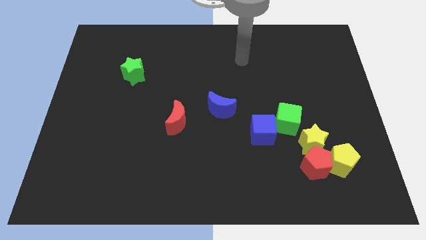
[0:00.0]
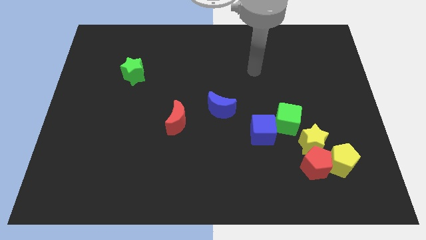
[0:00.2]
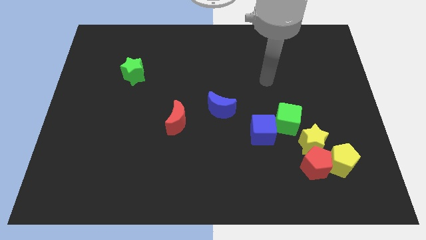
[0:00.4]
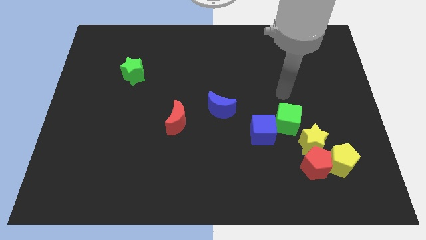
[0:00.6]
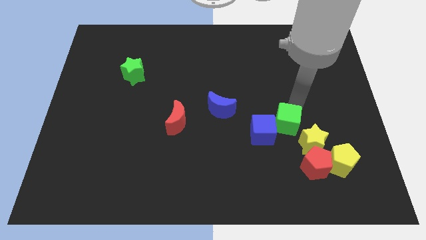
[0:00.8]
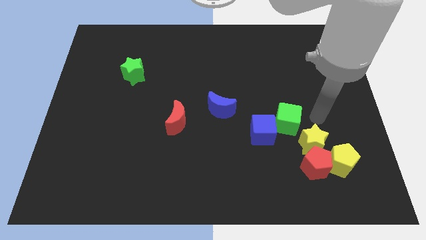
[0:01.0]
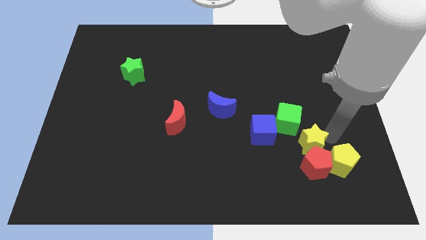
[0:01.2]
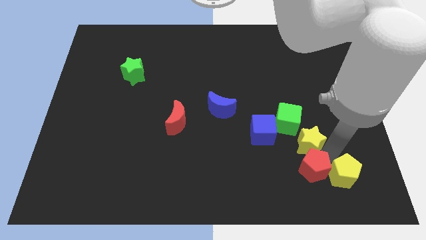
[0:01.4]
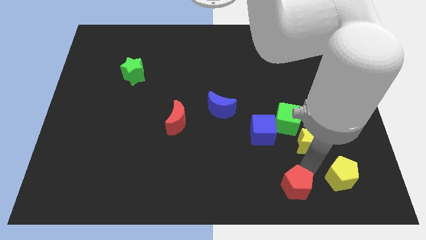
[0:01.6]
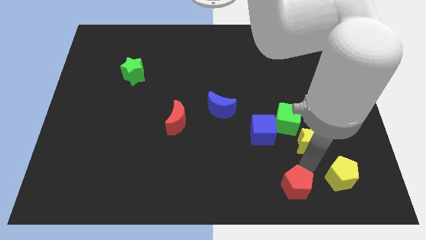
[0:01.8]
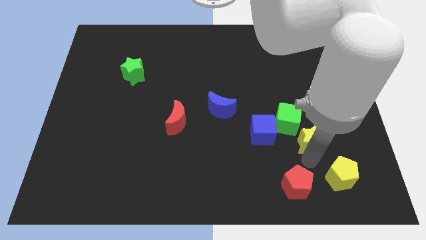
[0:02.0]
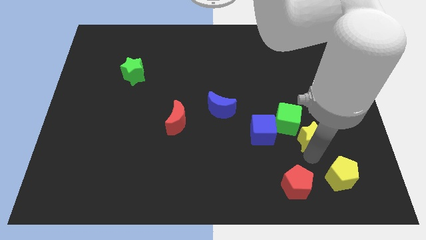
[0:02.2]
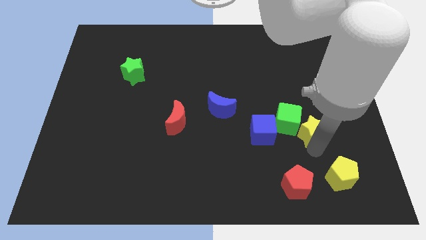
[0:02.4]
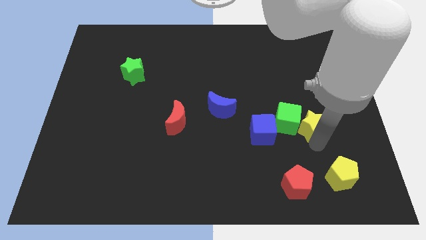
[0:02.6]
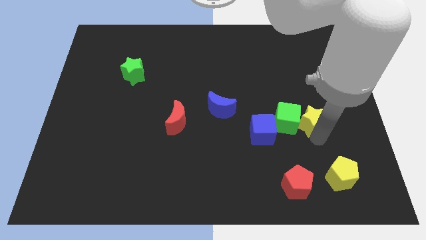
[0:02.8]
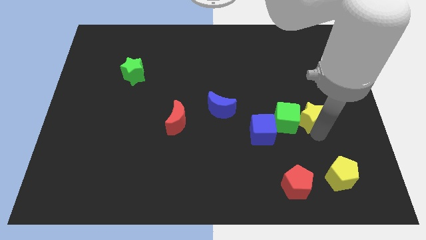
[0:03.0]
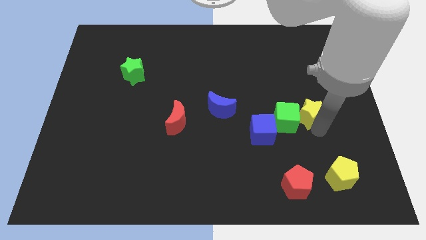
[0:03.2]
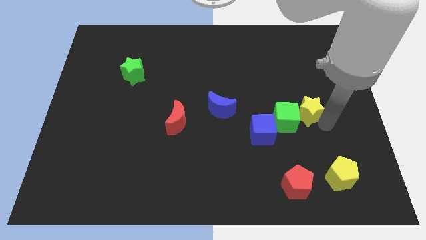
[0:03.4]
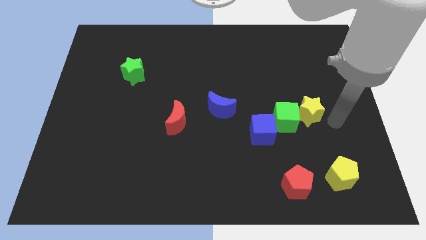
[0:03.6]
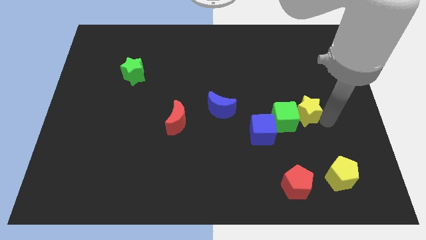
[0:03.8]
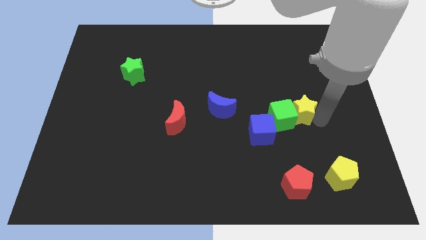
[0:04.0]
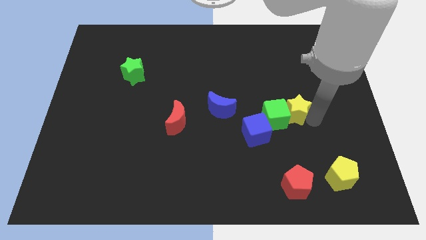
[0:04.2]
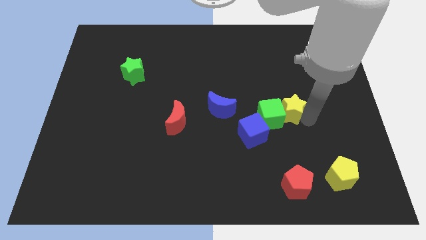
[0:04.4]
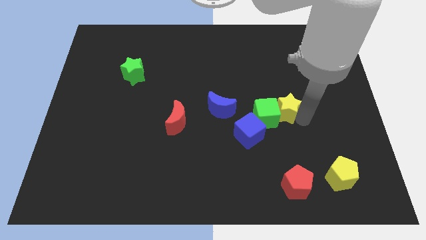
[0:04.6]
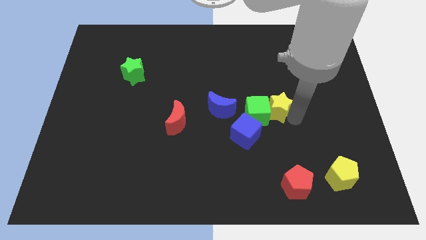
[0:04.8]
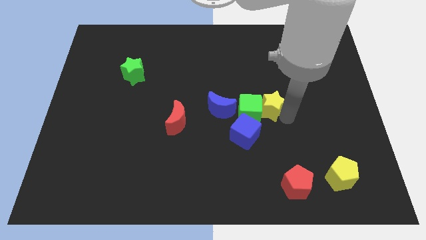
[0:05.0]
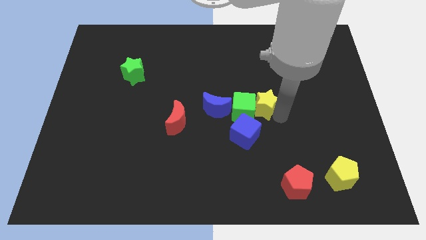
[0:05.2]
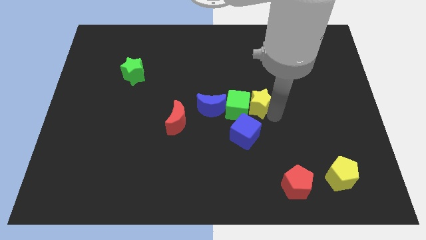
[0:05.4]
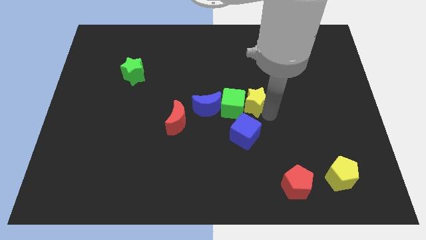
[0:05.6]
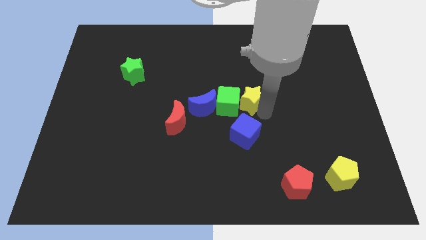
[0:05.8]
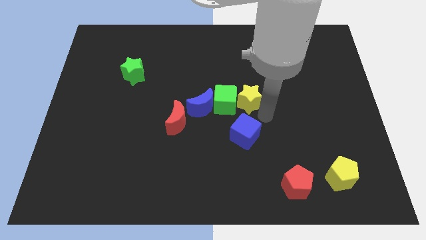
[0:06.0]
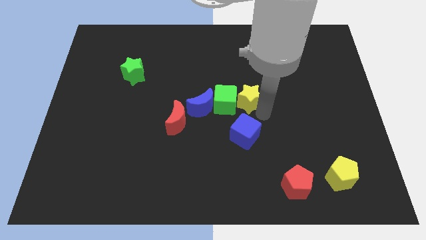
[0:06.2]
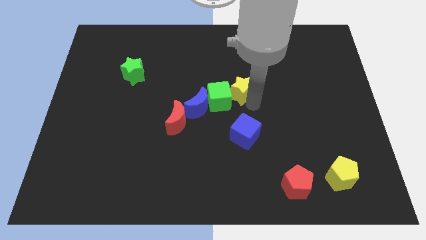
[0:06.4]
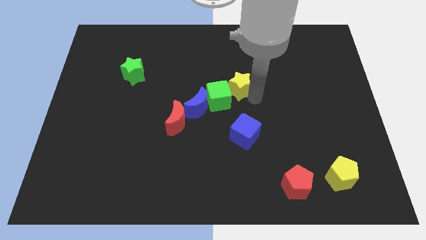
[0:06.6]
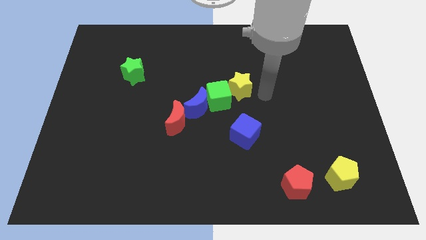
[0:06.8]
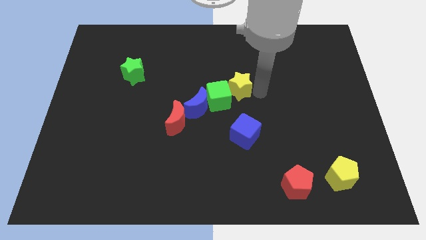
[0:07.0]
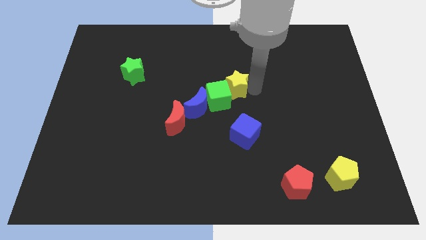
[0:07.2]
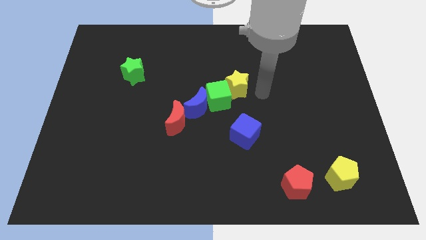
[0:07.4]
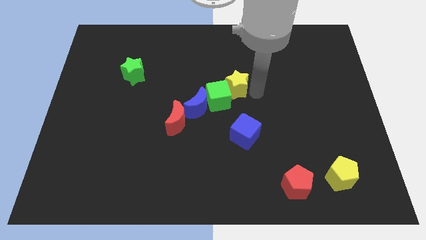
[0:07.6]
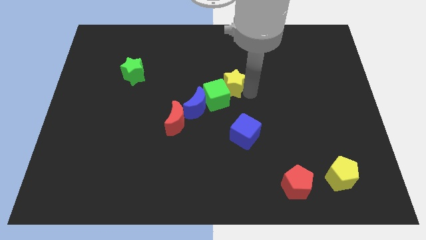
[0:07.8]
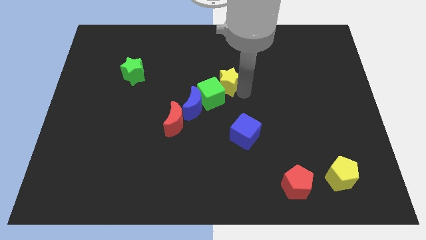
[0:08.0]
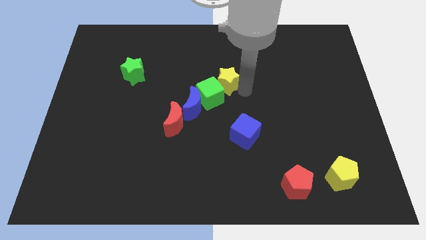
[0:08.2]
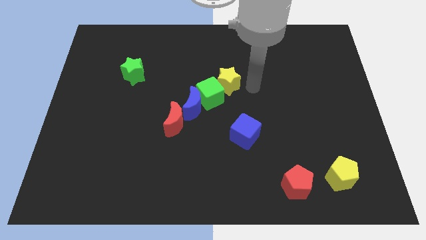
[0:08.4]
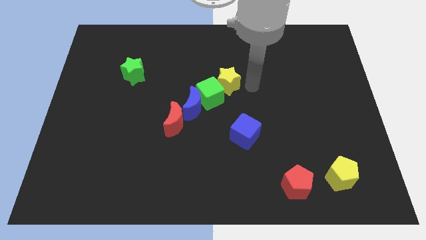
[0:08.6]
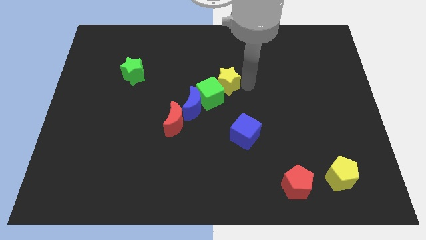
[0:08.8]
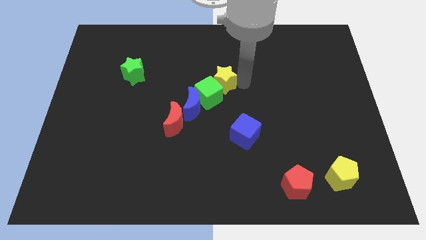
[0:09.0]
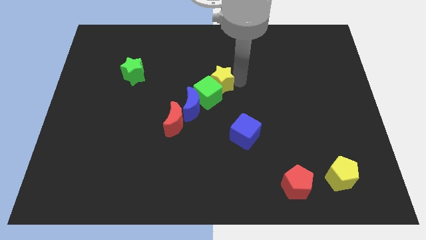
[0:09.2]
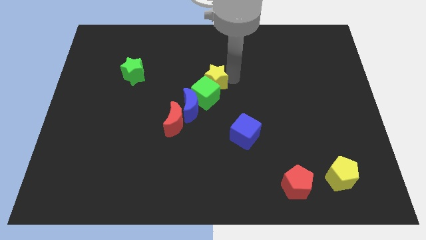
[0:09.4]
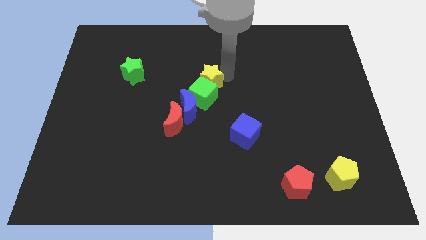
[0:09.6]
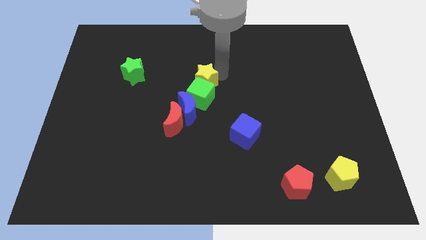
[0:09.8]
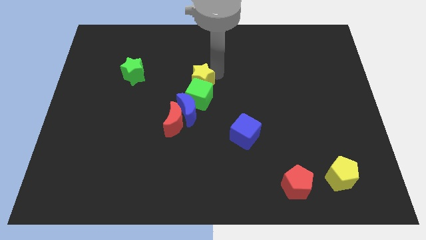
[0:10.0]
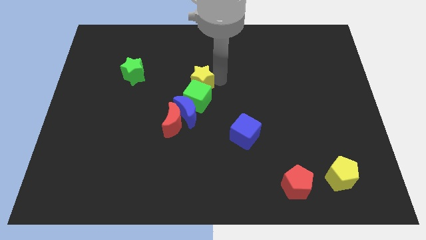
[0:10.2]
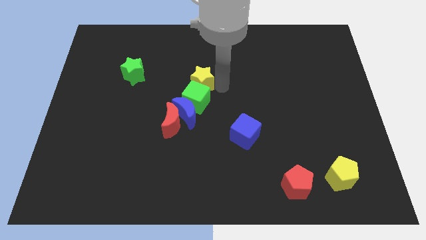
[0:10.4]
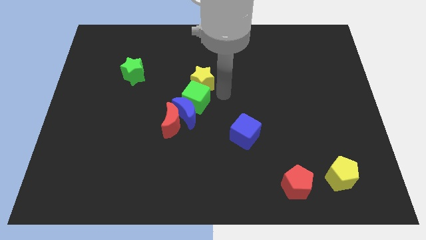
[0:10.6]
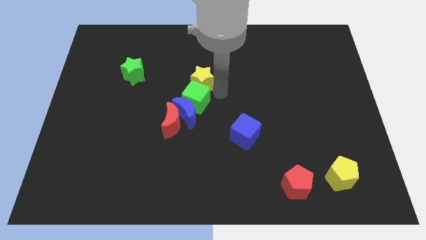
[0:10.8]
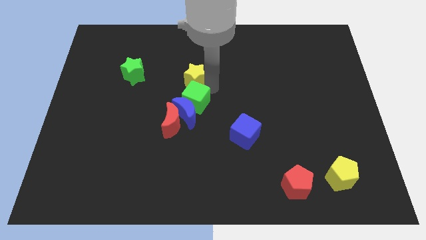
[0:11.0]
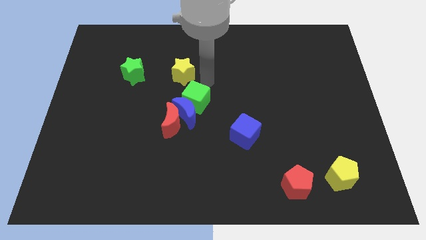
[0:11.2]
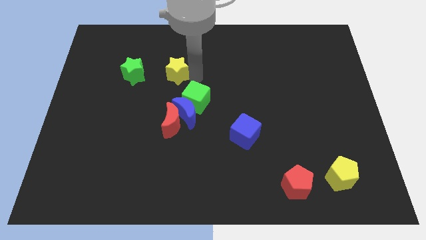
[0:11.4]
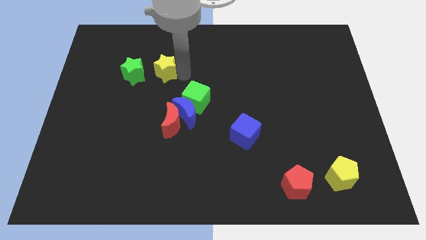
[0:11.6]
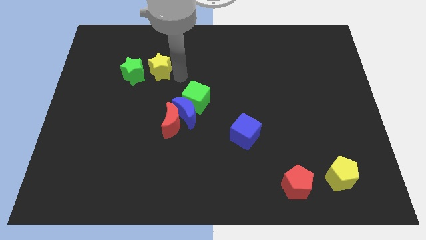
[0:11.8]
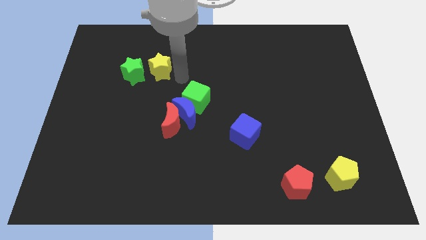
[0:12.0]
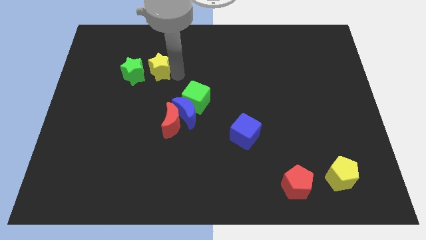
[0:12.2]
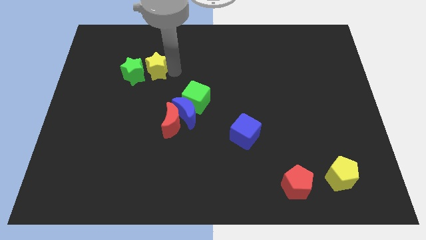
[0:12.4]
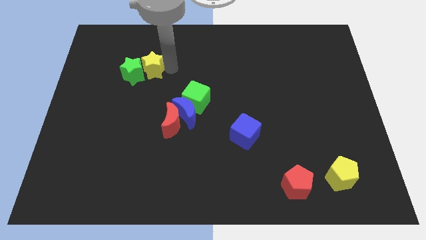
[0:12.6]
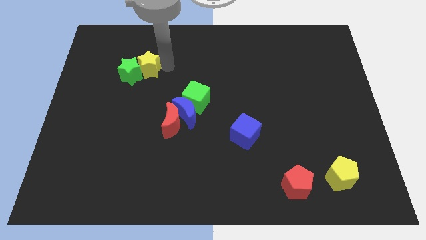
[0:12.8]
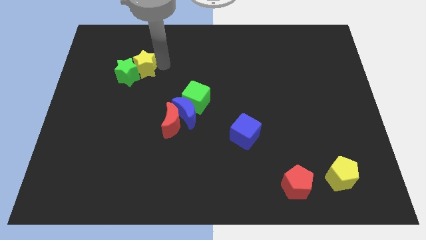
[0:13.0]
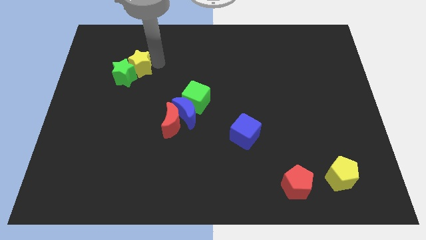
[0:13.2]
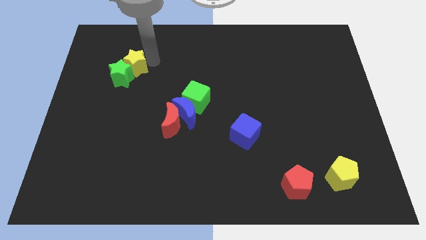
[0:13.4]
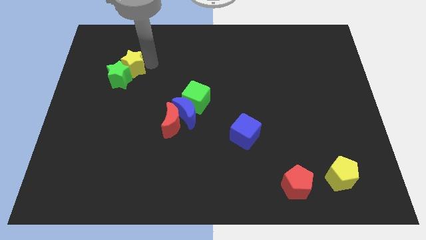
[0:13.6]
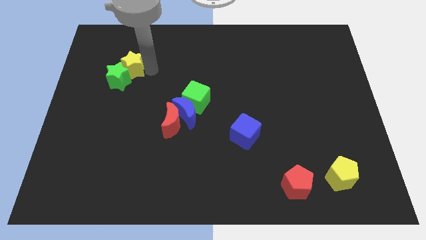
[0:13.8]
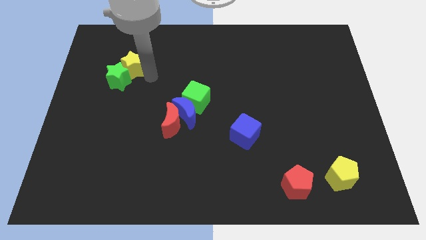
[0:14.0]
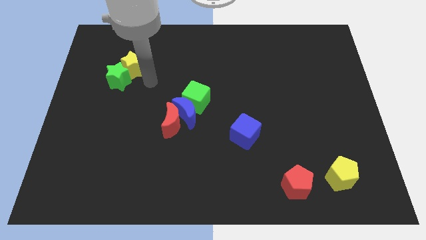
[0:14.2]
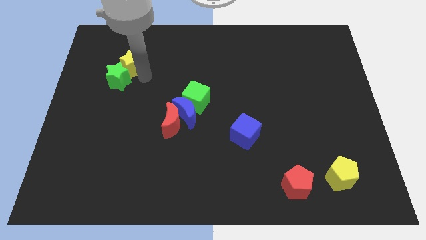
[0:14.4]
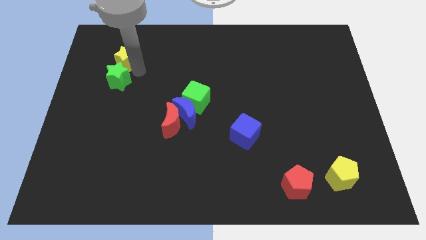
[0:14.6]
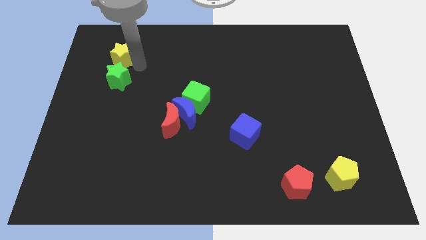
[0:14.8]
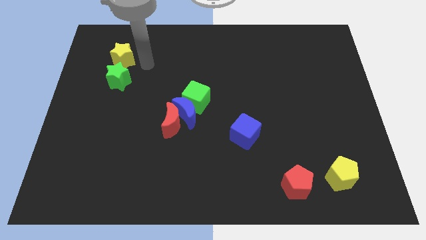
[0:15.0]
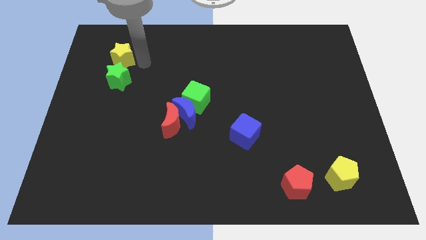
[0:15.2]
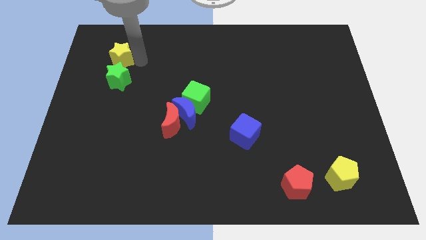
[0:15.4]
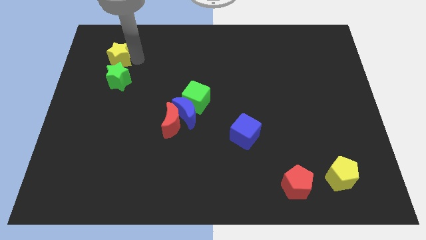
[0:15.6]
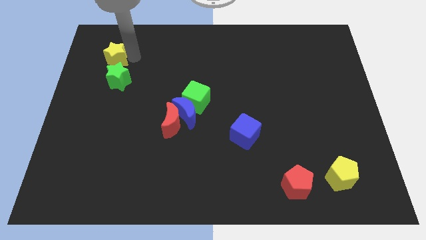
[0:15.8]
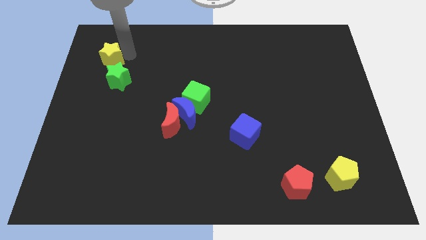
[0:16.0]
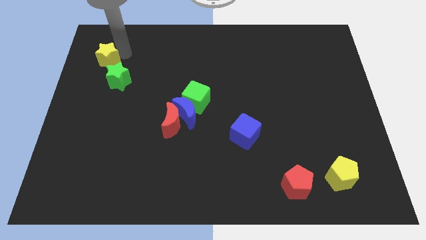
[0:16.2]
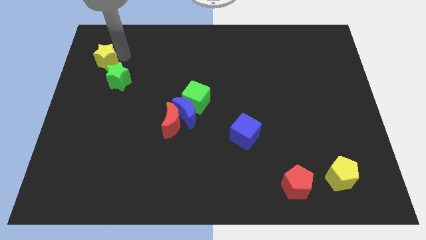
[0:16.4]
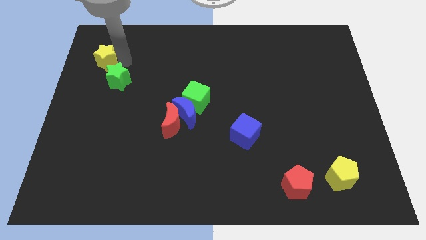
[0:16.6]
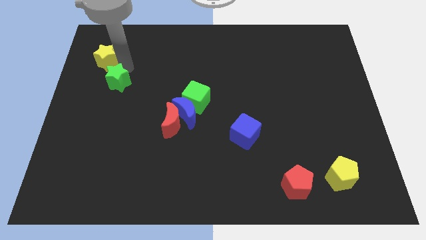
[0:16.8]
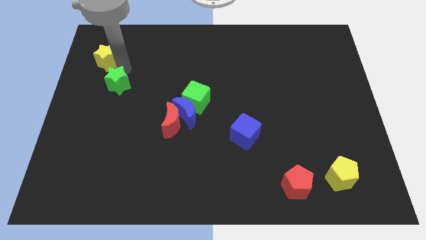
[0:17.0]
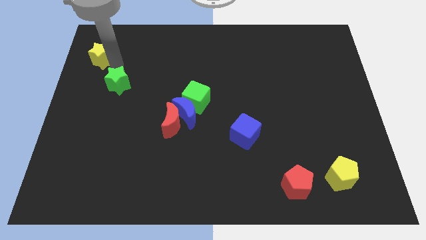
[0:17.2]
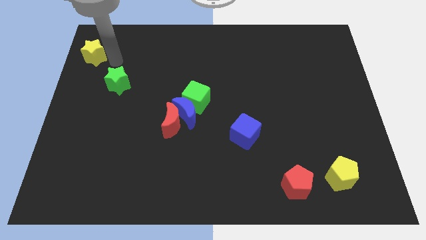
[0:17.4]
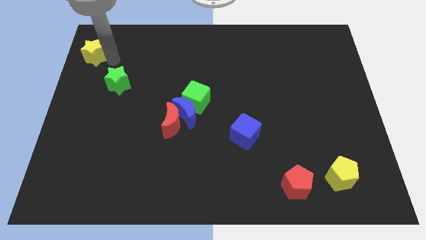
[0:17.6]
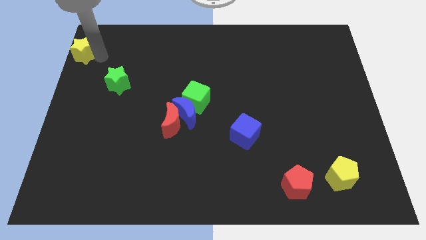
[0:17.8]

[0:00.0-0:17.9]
move the yellow star to the top left corner
